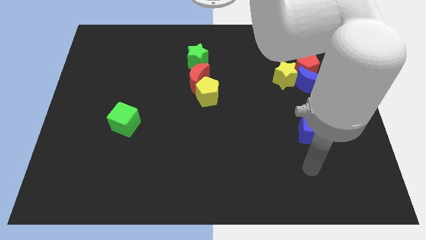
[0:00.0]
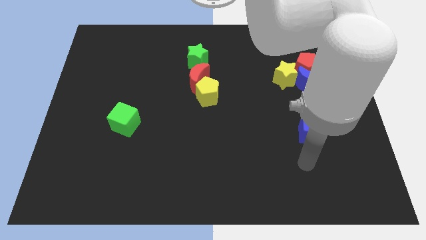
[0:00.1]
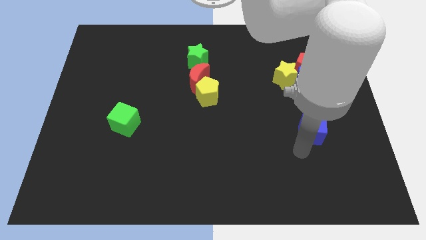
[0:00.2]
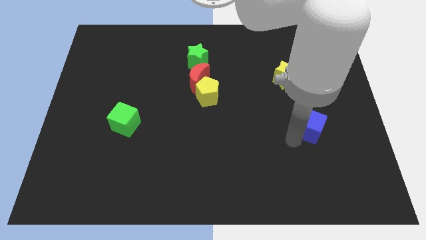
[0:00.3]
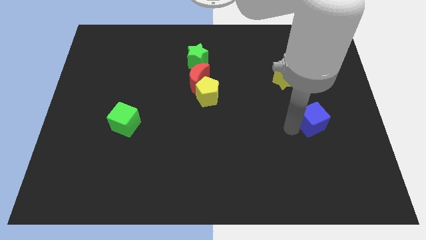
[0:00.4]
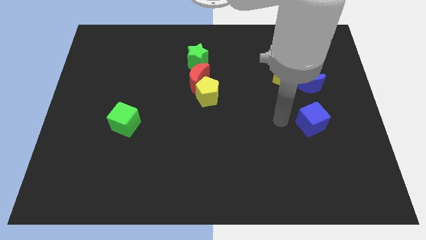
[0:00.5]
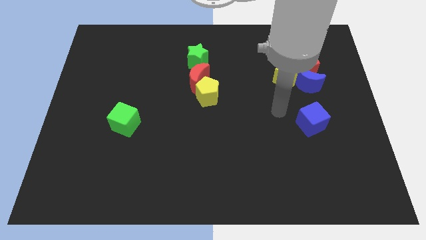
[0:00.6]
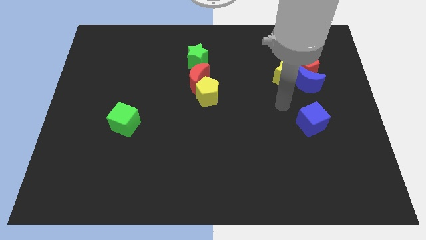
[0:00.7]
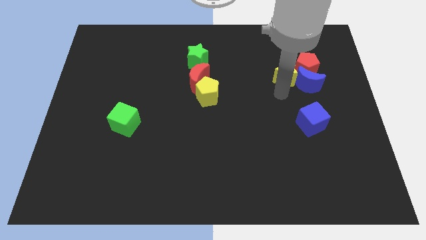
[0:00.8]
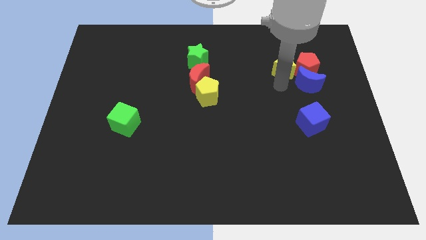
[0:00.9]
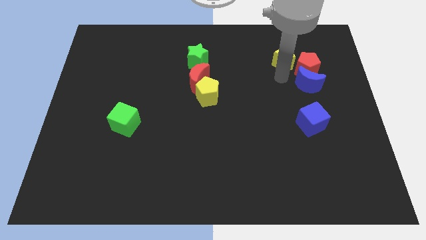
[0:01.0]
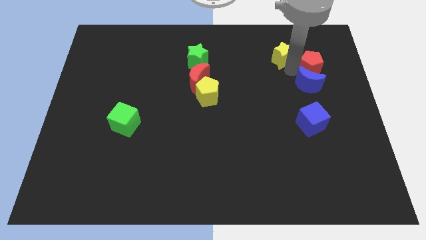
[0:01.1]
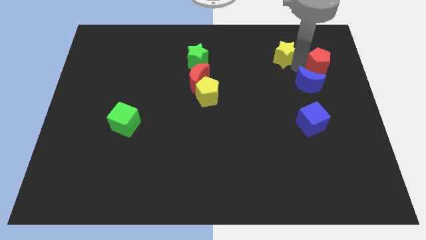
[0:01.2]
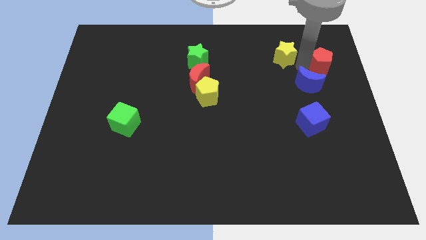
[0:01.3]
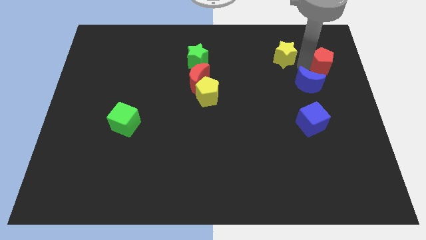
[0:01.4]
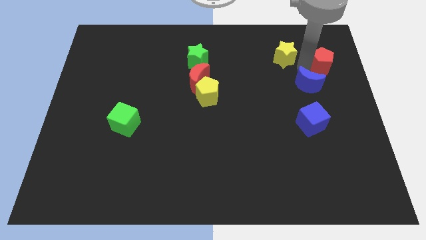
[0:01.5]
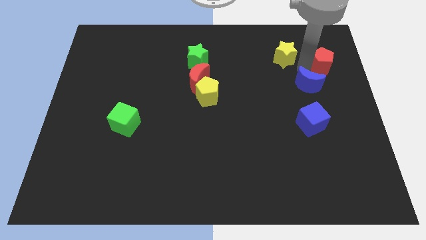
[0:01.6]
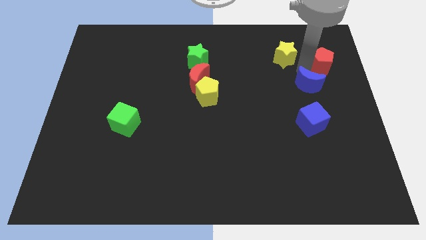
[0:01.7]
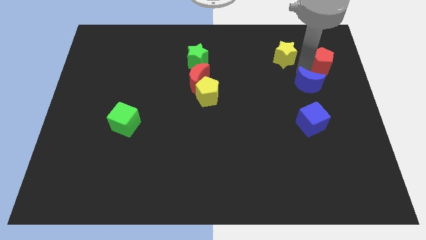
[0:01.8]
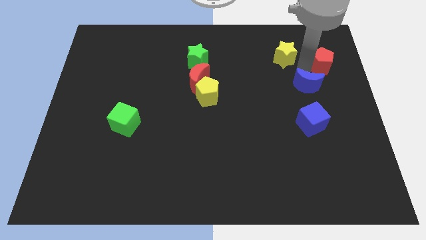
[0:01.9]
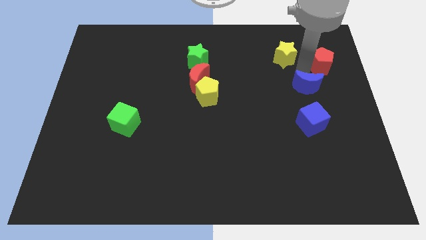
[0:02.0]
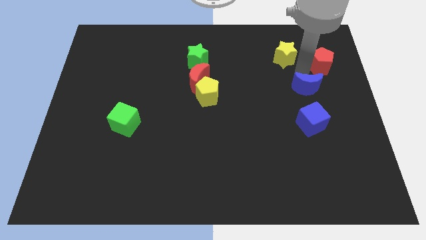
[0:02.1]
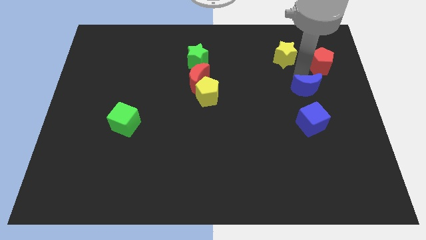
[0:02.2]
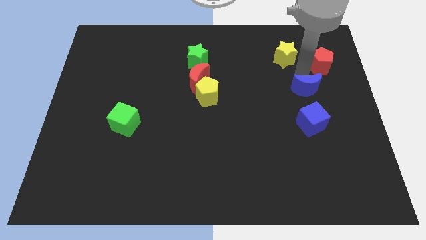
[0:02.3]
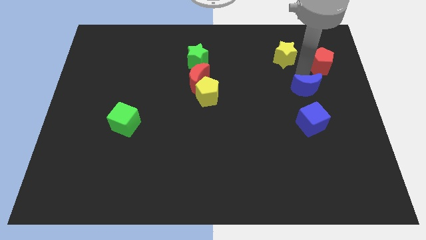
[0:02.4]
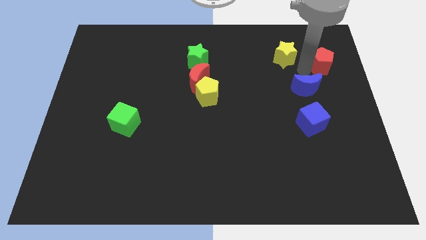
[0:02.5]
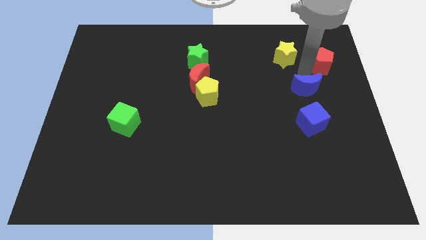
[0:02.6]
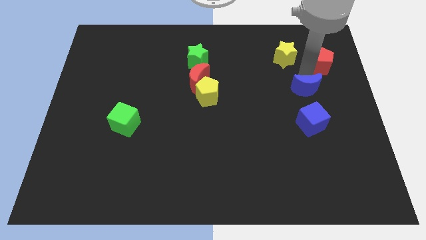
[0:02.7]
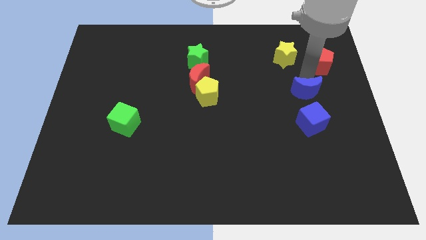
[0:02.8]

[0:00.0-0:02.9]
move the blue moon away from the red pentagon and yellow star

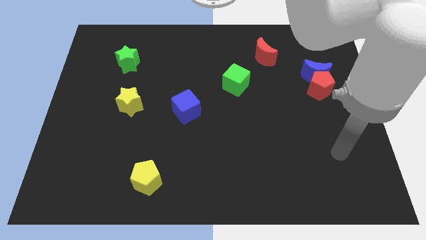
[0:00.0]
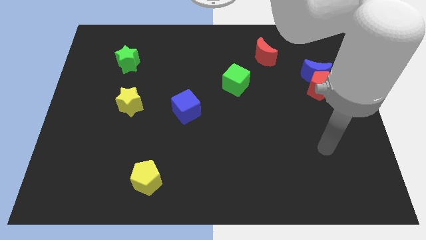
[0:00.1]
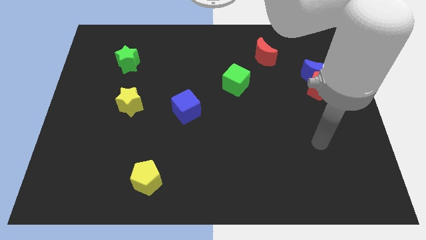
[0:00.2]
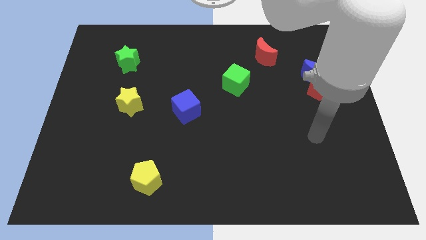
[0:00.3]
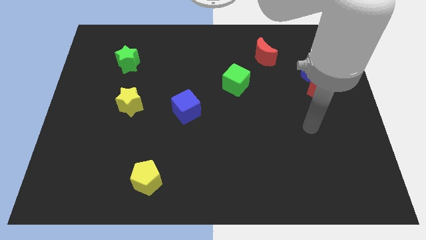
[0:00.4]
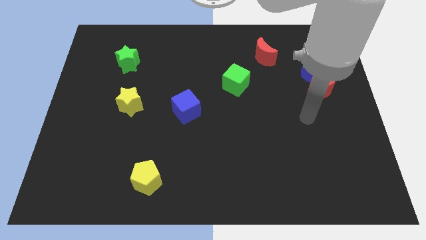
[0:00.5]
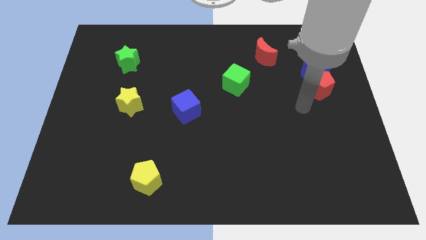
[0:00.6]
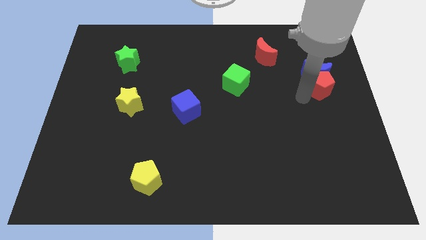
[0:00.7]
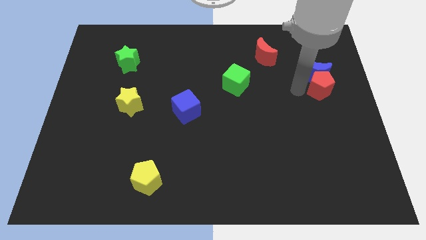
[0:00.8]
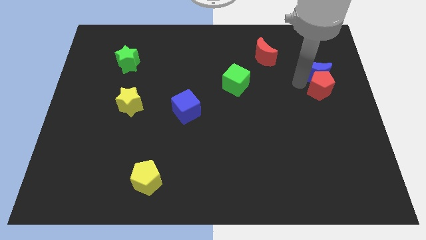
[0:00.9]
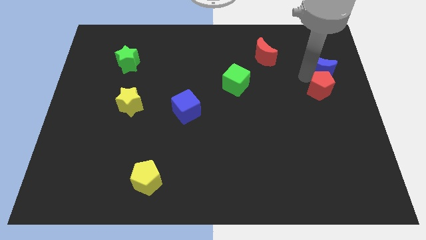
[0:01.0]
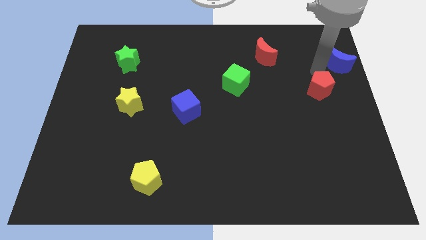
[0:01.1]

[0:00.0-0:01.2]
separate the red pentagon from the blue moon

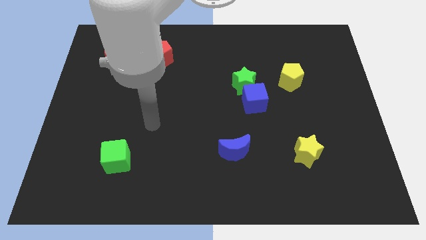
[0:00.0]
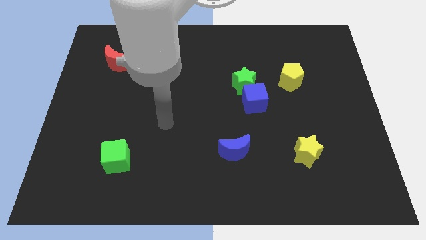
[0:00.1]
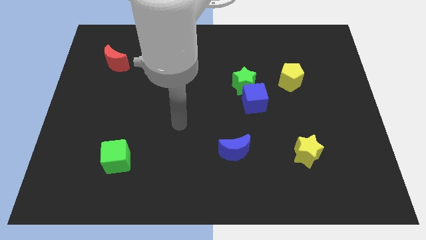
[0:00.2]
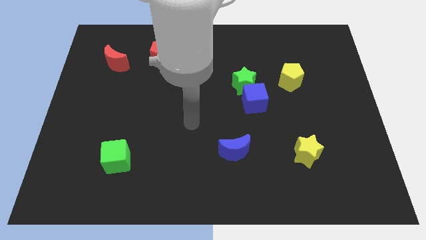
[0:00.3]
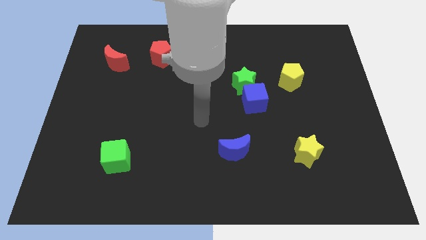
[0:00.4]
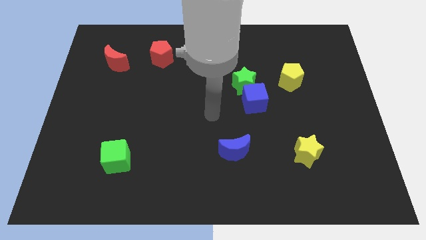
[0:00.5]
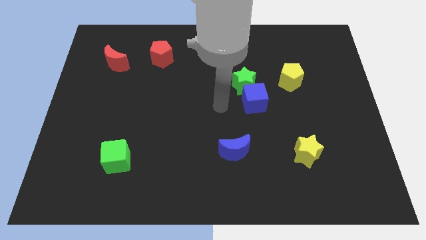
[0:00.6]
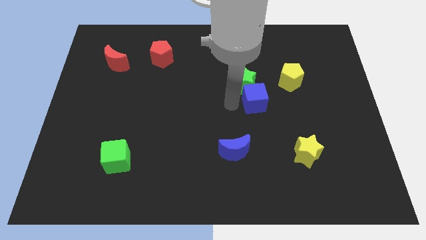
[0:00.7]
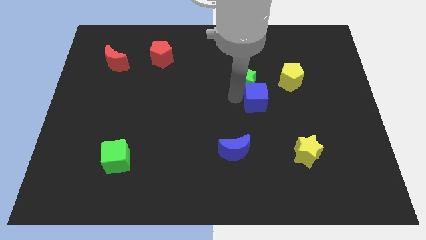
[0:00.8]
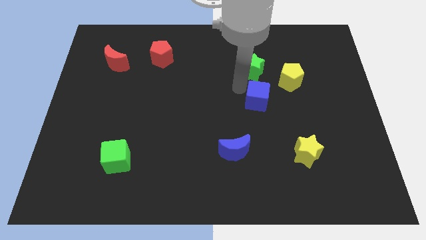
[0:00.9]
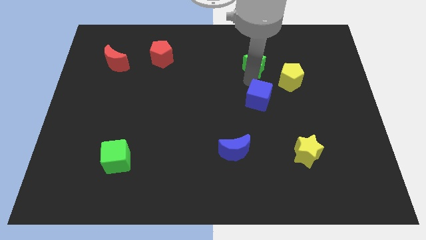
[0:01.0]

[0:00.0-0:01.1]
move the blue cube away from the green star

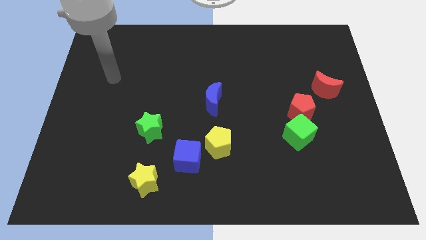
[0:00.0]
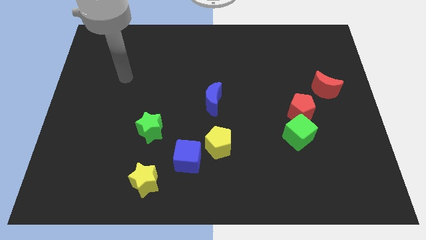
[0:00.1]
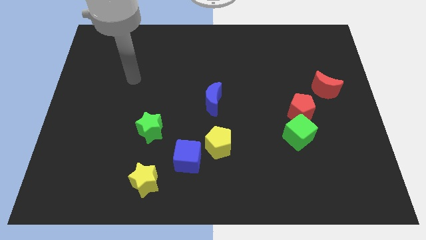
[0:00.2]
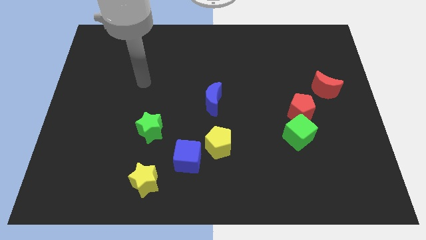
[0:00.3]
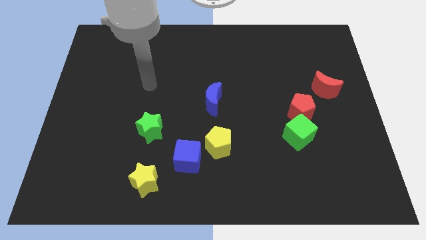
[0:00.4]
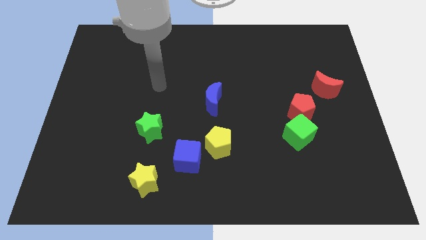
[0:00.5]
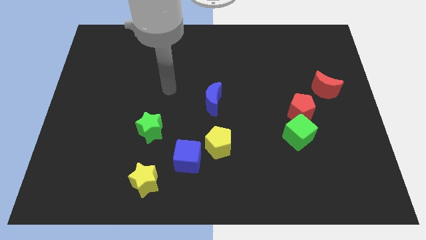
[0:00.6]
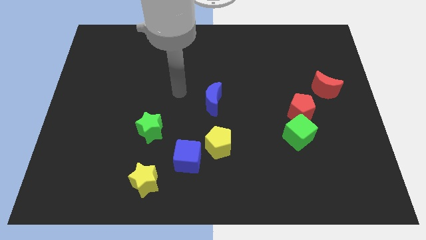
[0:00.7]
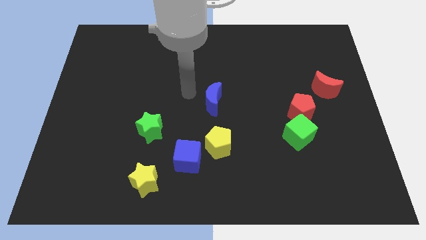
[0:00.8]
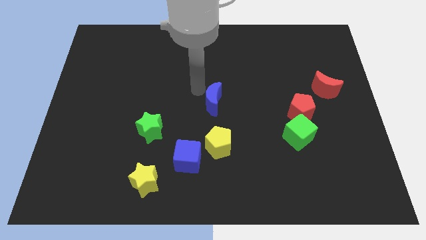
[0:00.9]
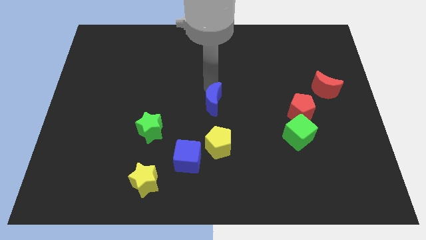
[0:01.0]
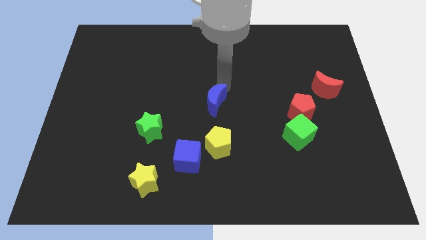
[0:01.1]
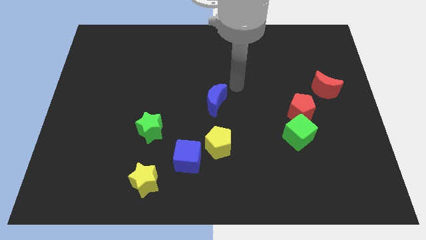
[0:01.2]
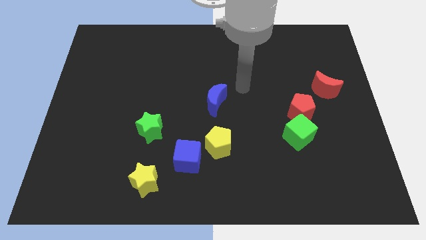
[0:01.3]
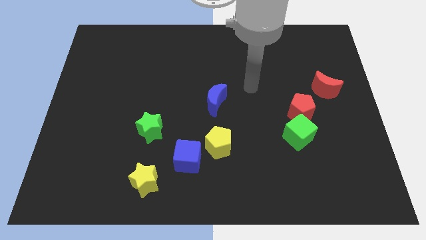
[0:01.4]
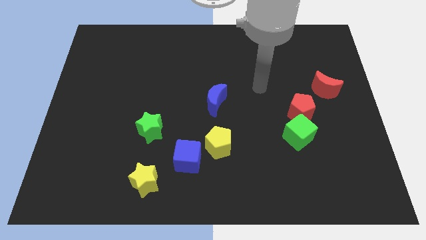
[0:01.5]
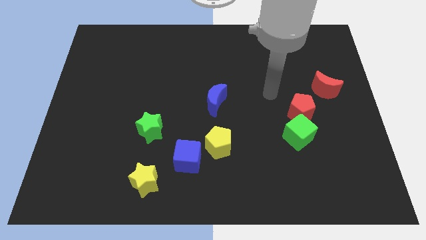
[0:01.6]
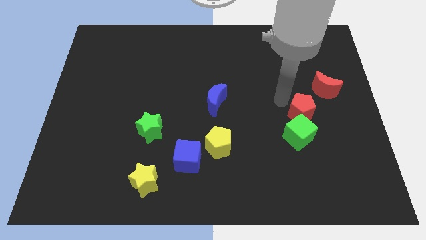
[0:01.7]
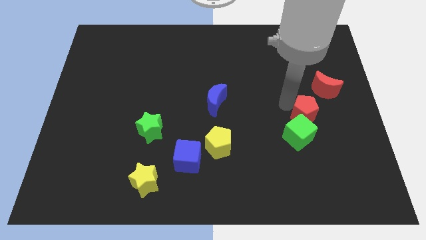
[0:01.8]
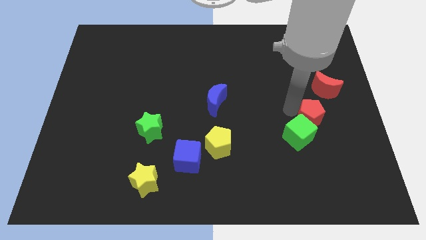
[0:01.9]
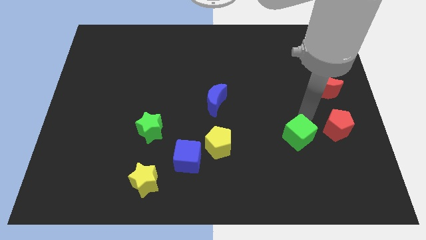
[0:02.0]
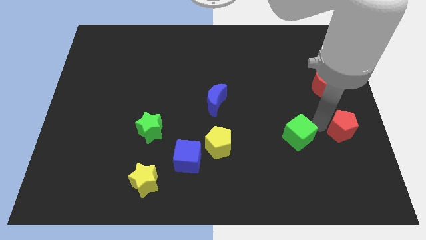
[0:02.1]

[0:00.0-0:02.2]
move the green cube away from the red pentagon

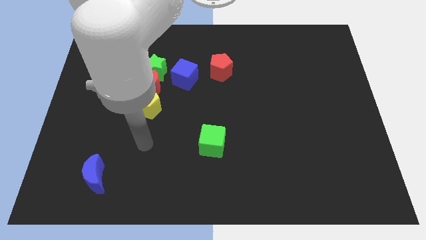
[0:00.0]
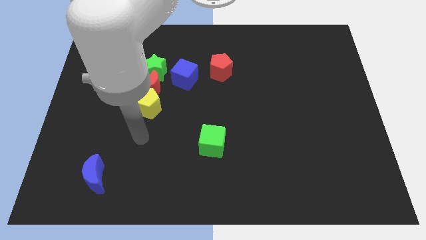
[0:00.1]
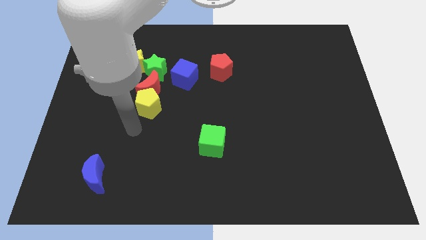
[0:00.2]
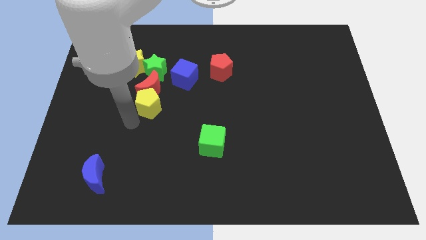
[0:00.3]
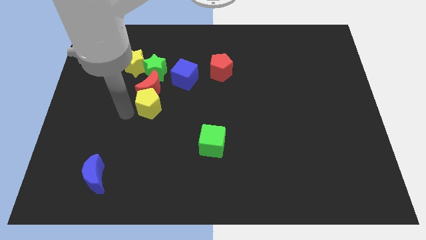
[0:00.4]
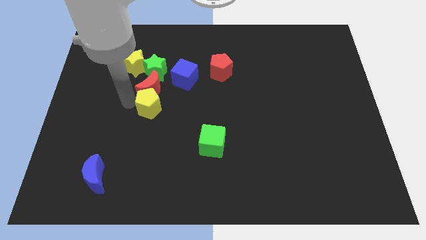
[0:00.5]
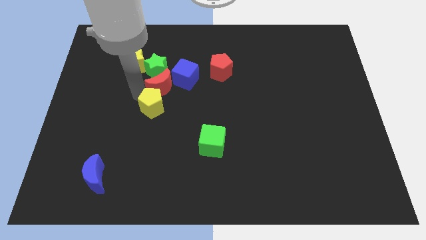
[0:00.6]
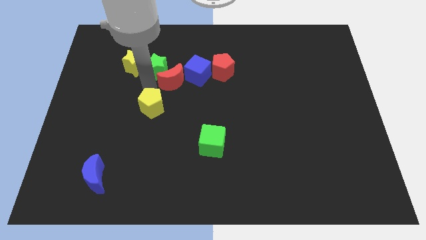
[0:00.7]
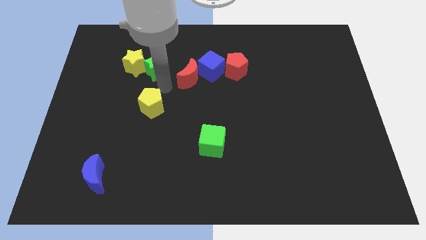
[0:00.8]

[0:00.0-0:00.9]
separate the yellow pentagon from the red moon

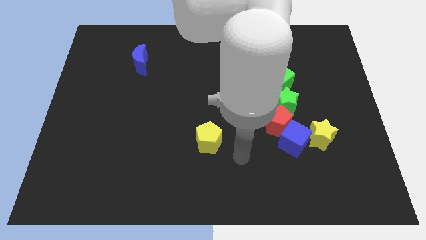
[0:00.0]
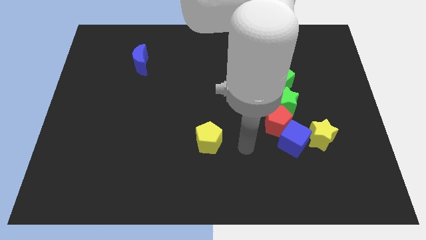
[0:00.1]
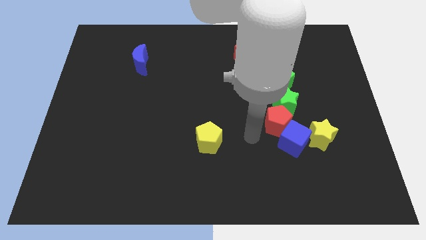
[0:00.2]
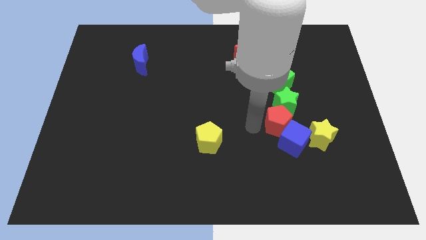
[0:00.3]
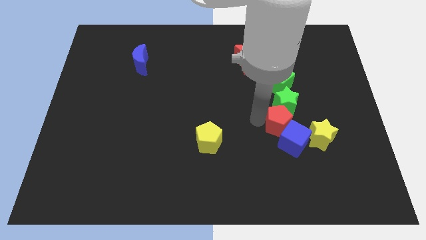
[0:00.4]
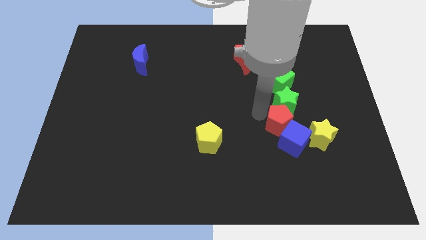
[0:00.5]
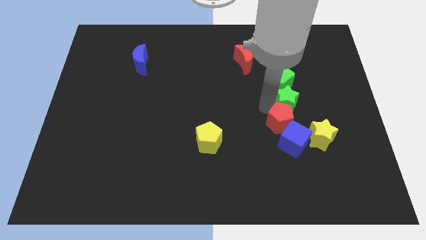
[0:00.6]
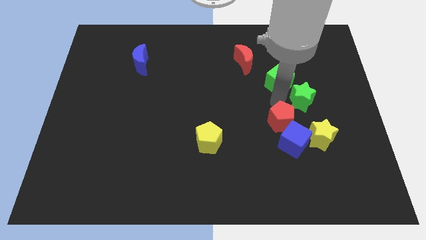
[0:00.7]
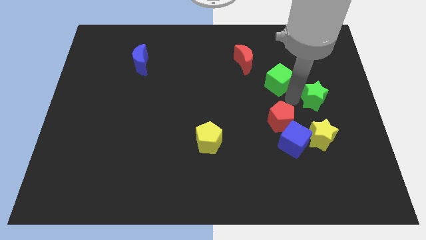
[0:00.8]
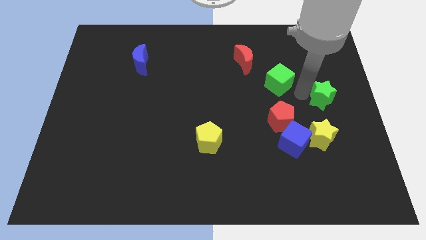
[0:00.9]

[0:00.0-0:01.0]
separate the green cube from the green star

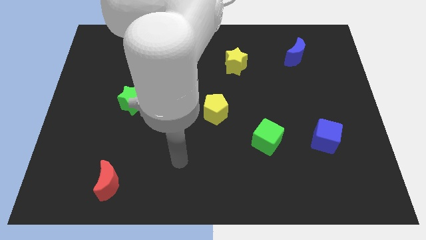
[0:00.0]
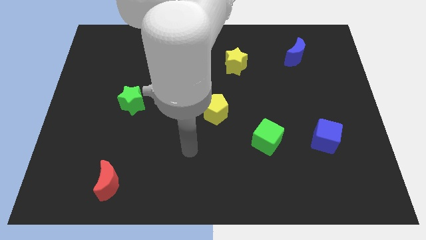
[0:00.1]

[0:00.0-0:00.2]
separate the red pentagon from the yellow pentagon

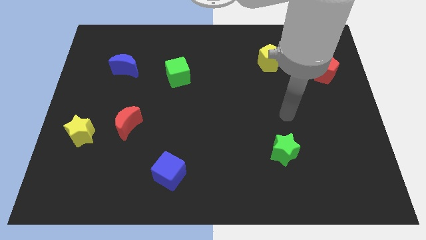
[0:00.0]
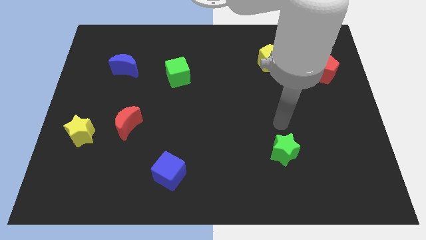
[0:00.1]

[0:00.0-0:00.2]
pull the red moon apart from the yellow star
